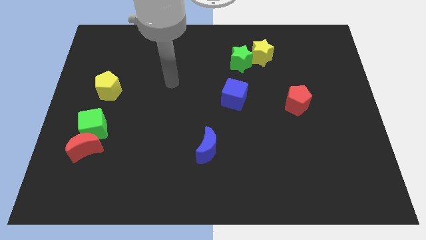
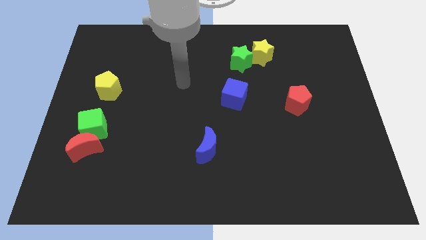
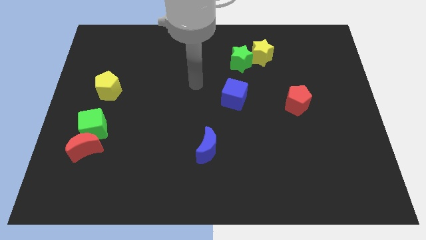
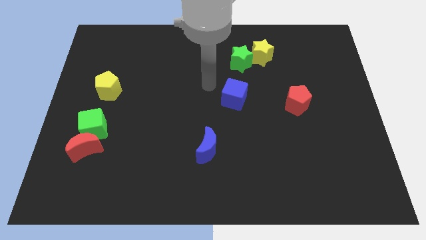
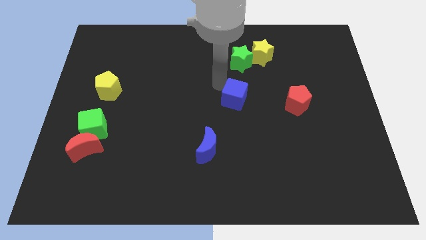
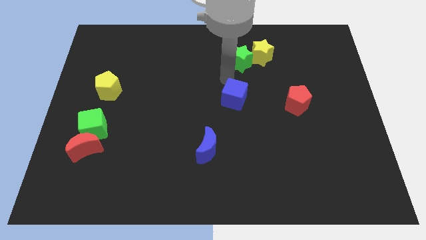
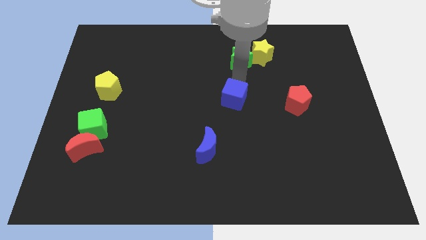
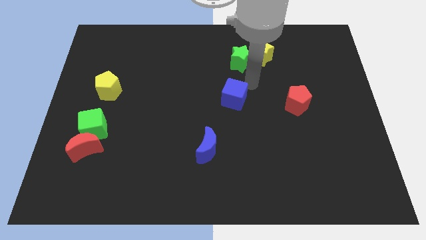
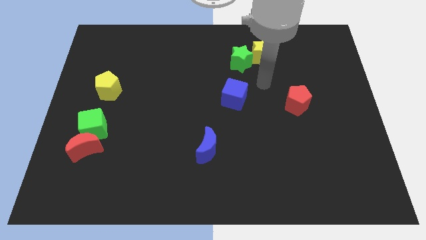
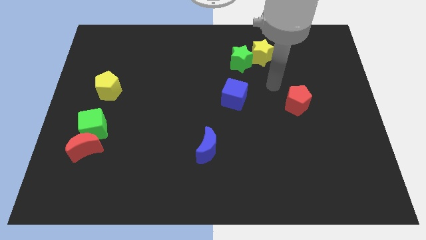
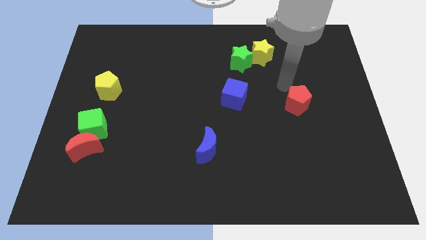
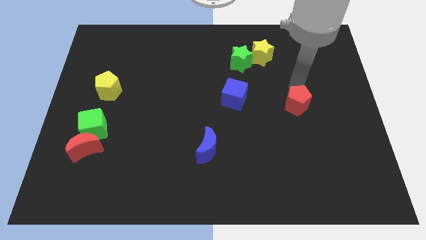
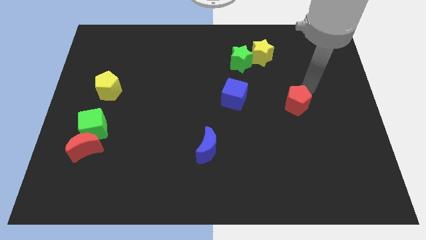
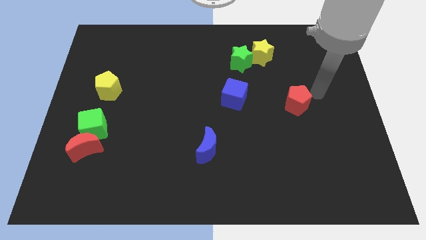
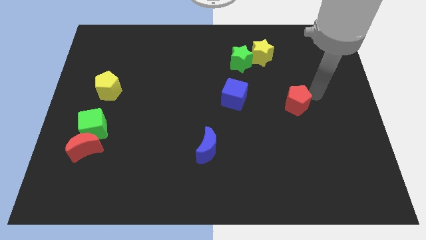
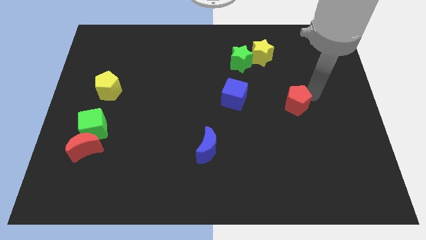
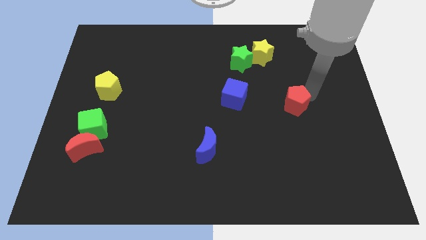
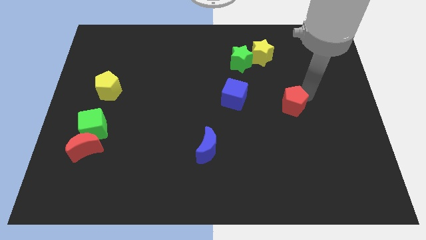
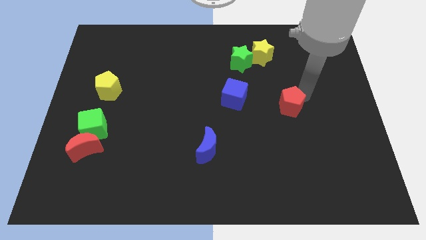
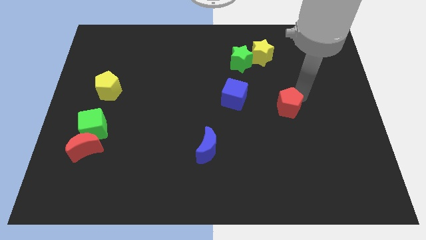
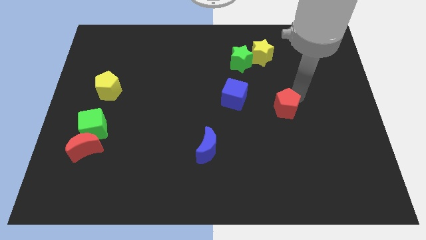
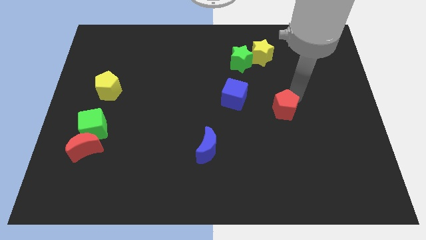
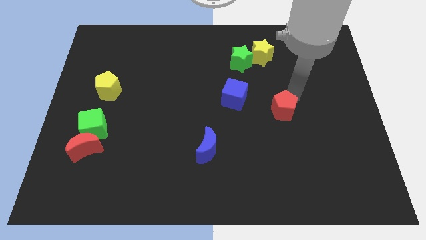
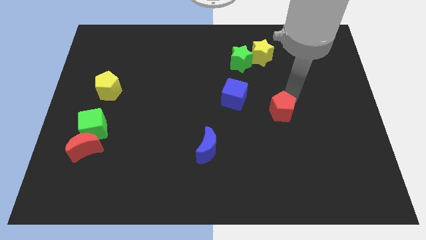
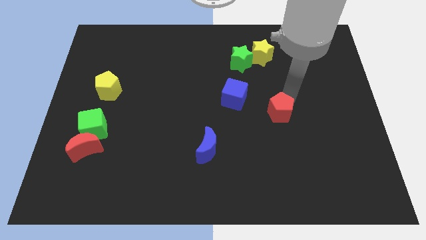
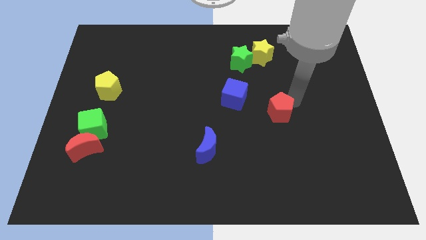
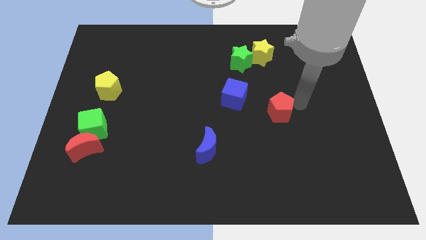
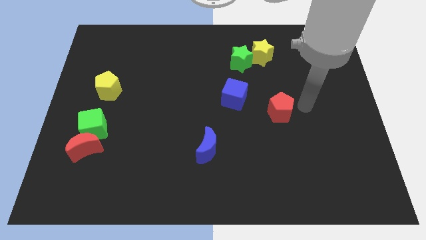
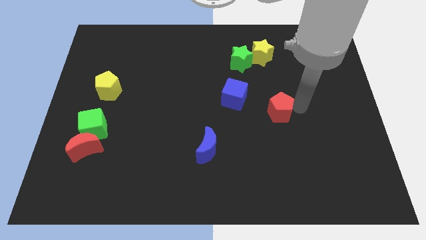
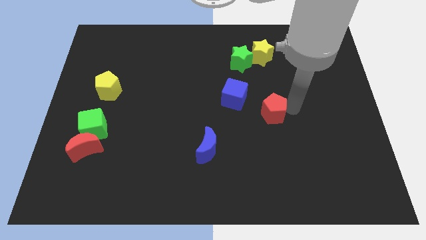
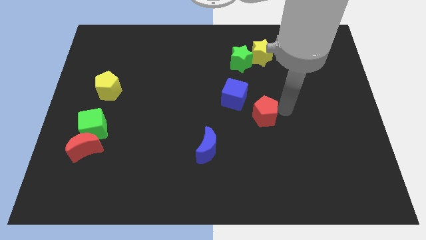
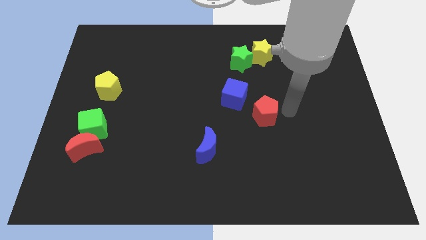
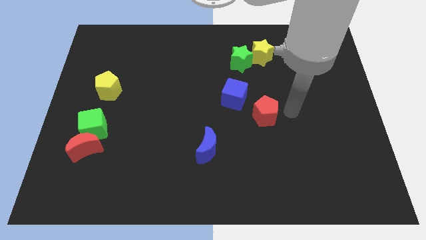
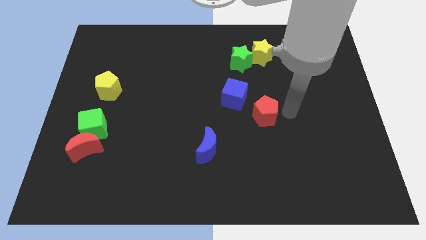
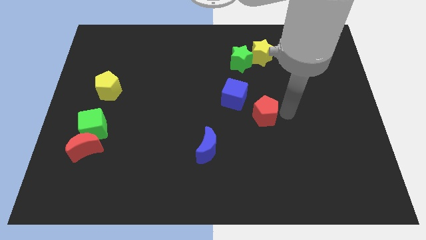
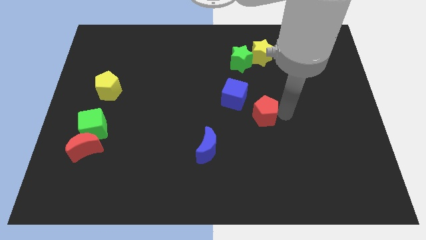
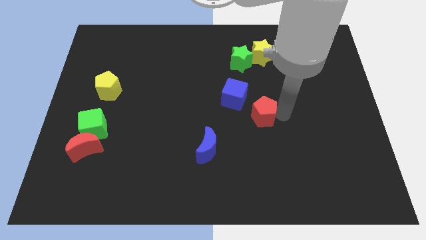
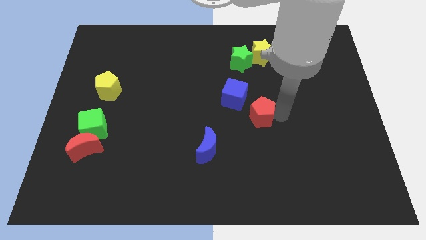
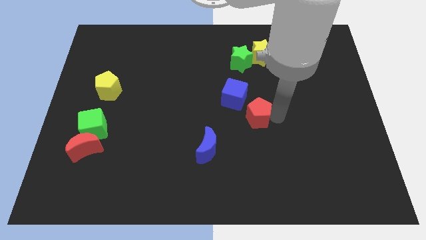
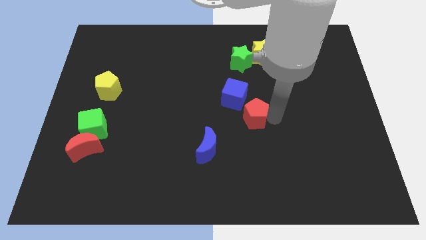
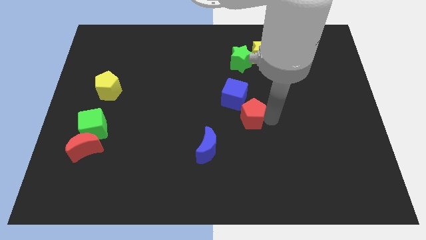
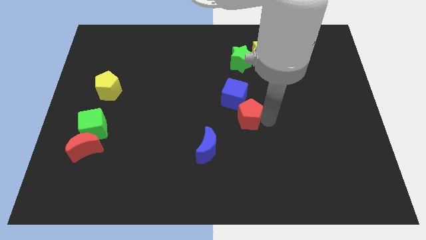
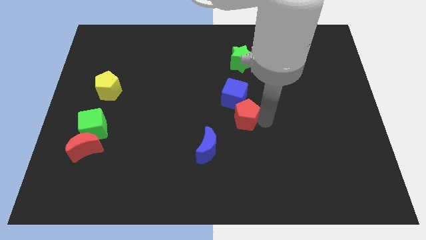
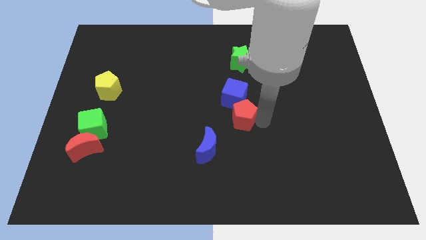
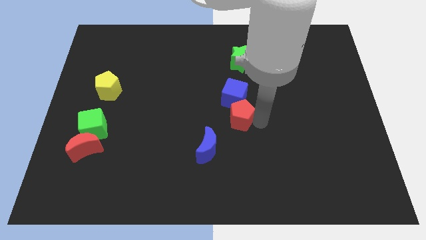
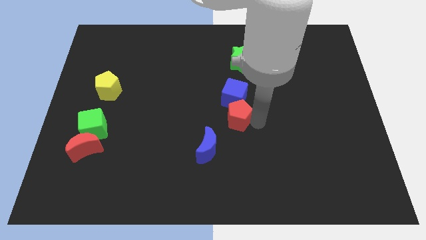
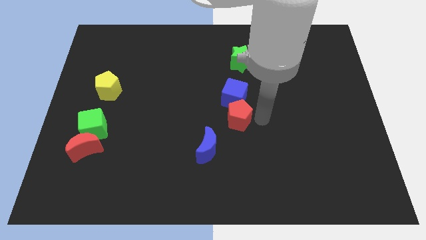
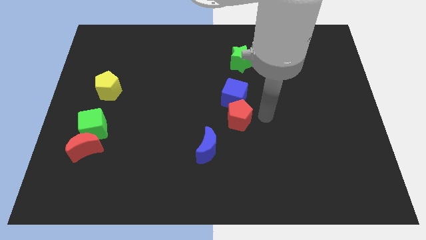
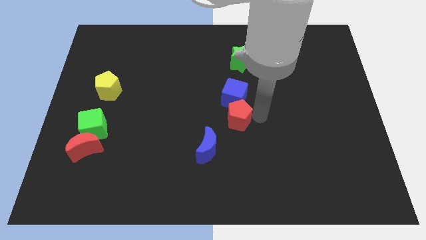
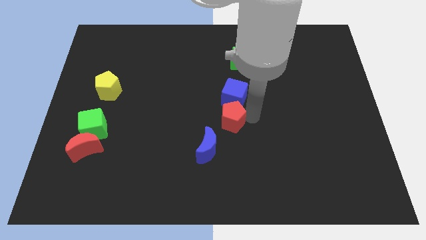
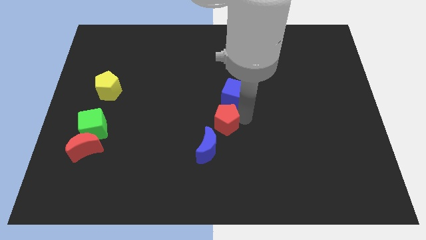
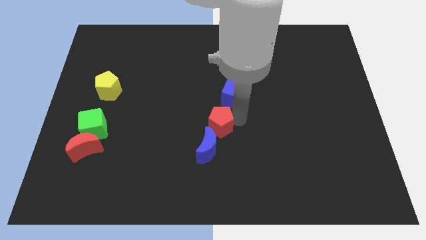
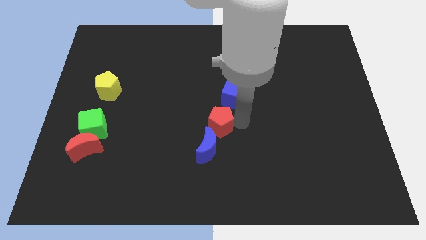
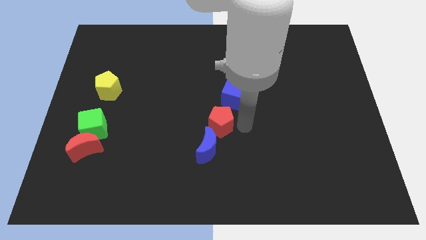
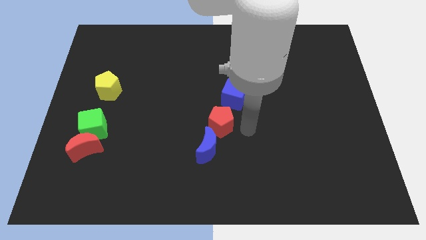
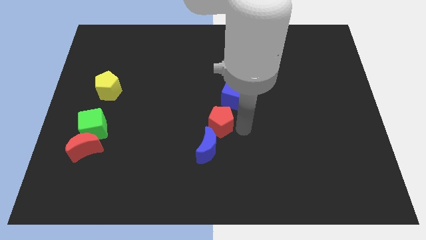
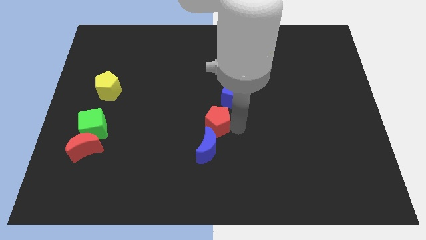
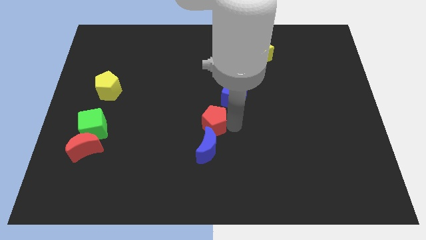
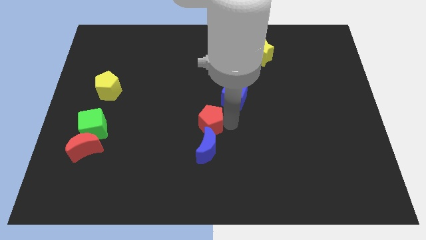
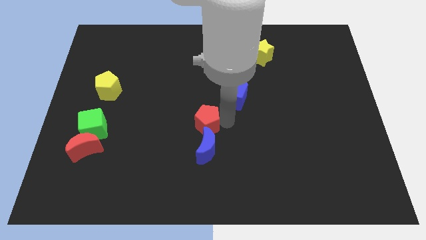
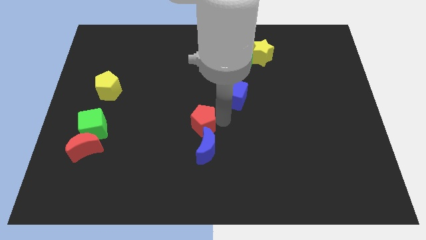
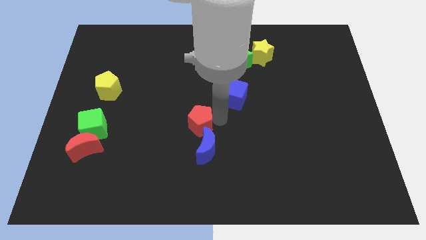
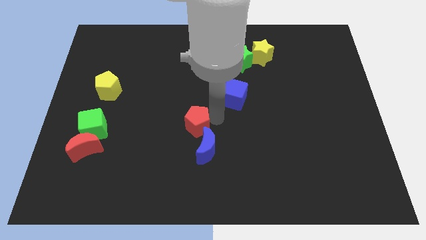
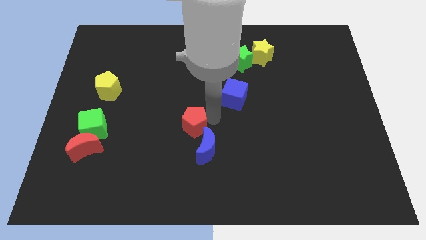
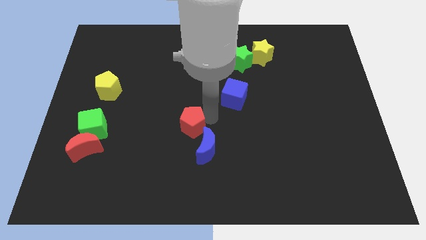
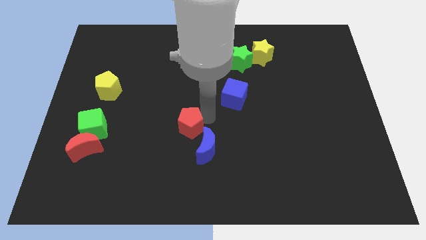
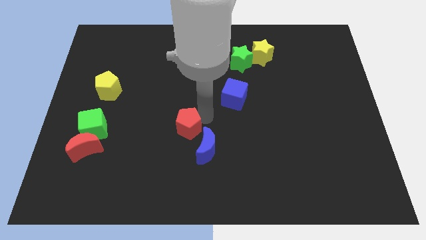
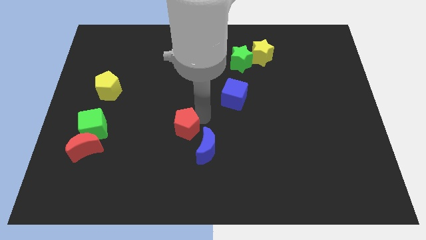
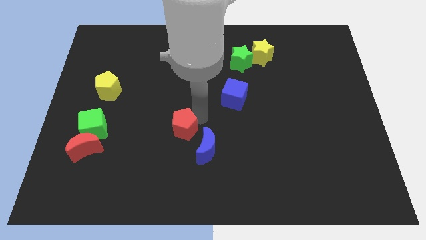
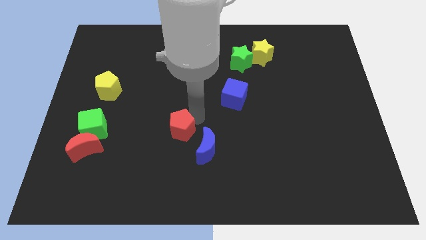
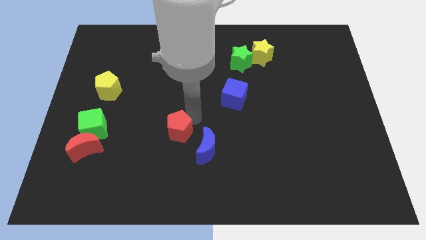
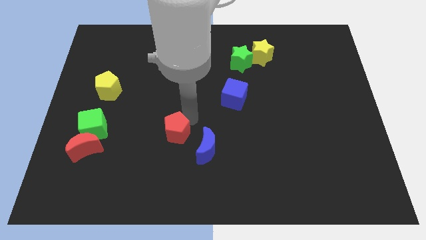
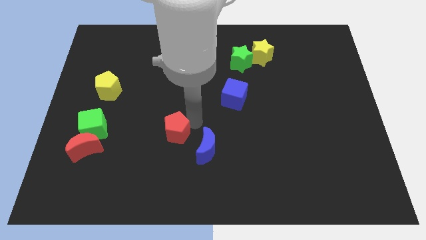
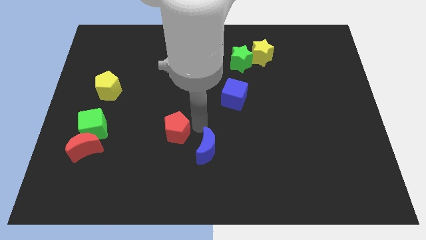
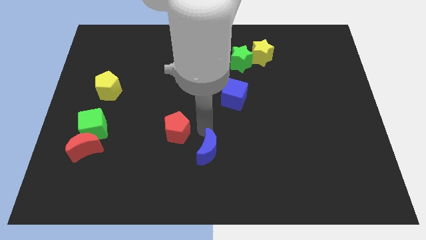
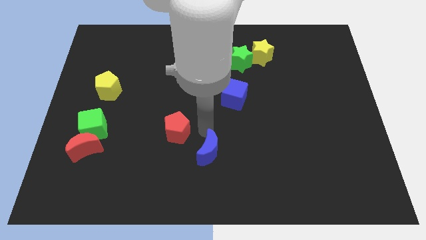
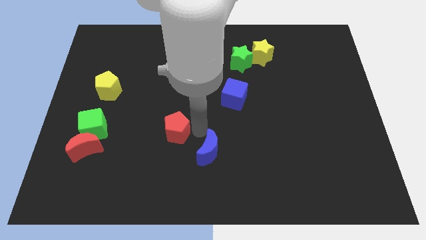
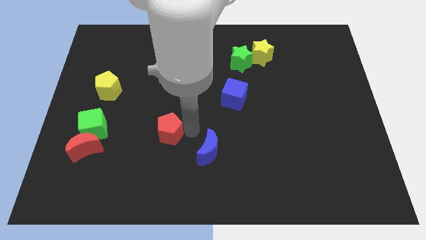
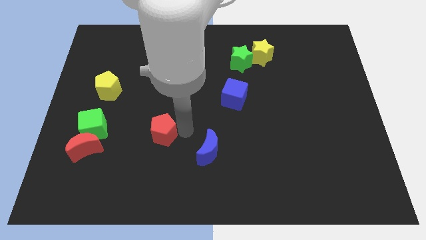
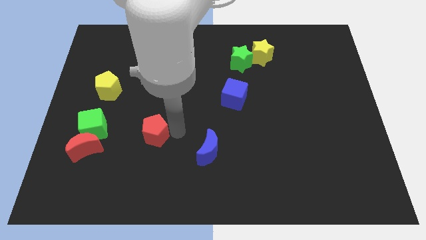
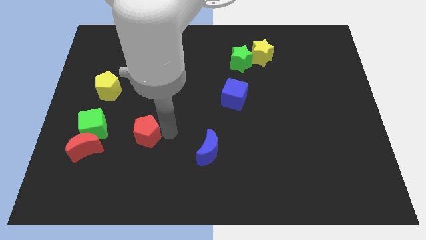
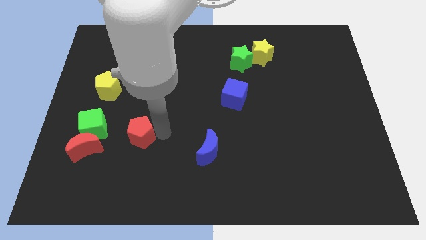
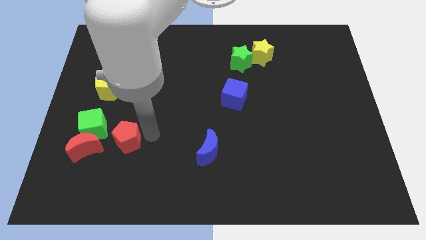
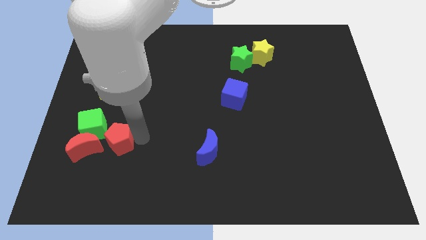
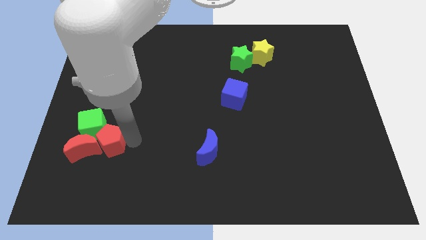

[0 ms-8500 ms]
push the red pentagon to the green cube
